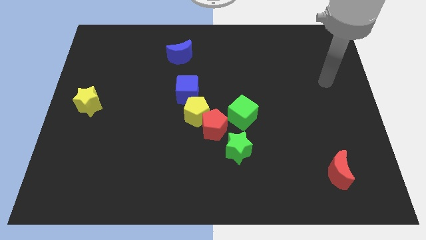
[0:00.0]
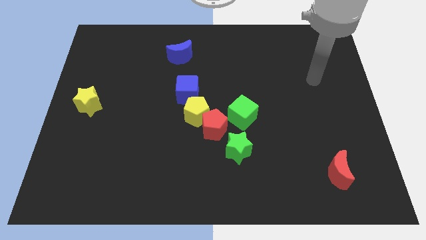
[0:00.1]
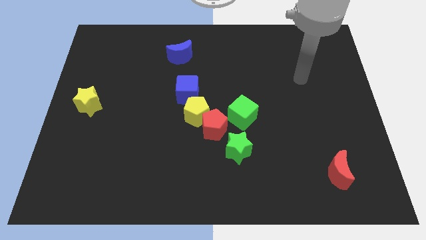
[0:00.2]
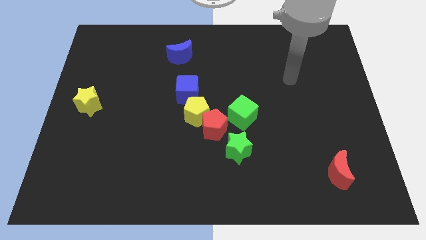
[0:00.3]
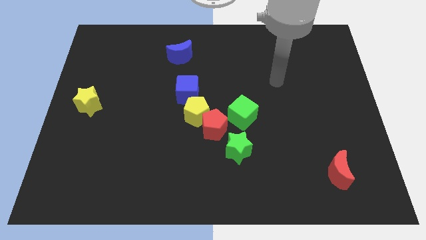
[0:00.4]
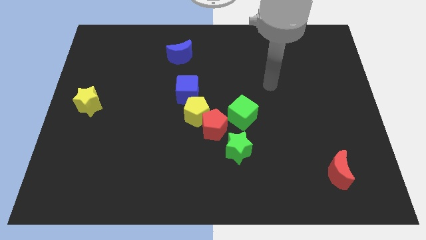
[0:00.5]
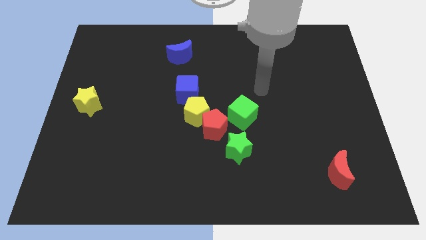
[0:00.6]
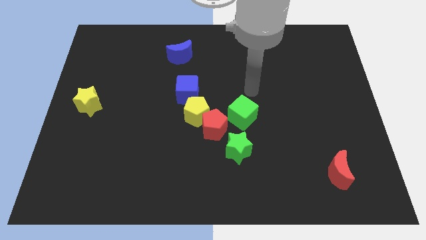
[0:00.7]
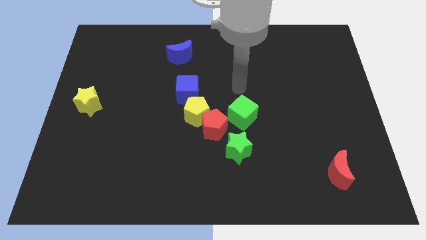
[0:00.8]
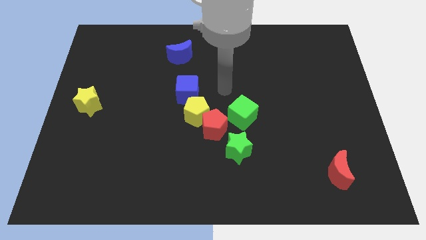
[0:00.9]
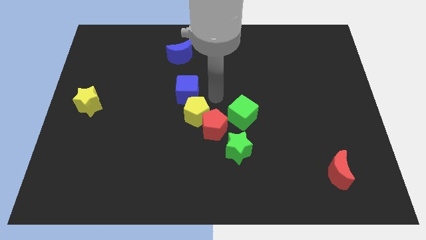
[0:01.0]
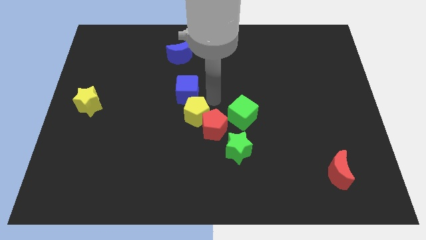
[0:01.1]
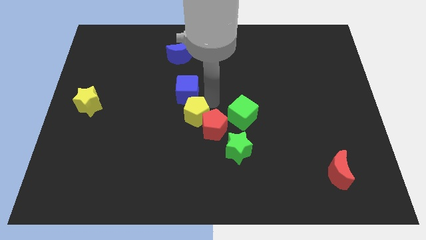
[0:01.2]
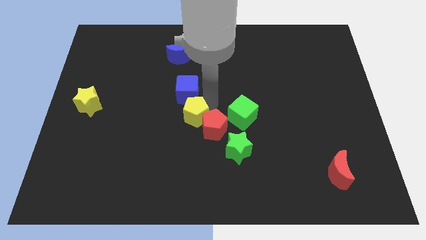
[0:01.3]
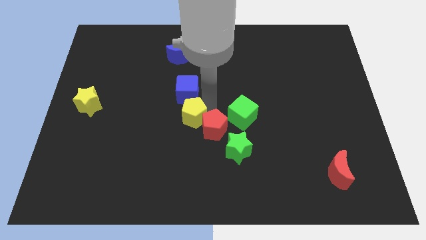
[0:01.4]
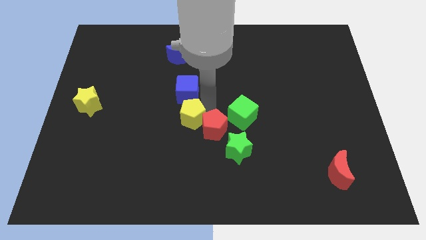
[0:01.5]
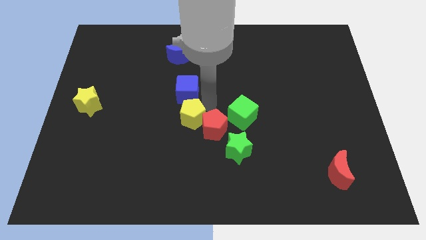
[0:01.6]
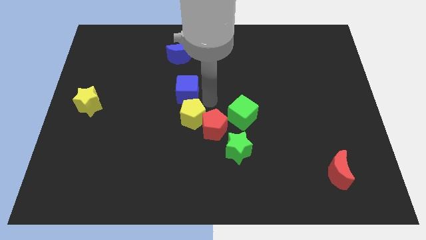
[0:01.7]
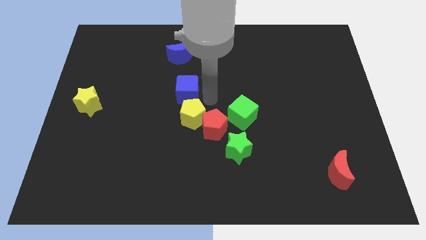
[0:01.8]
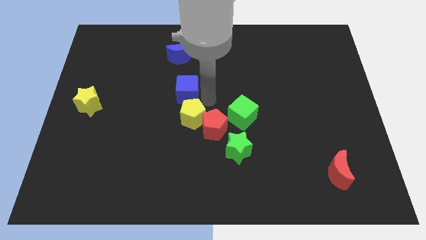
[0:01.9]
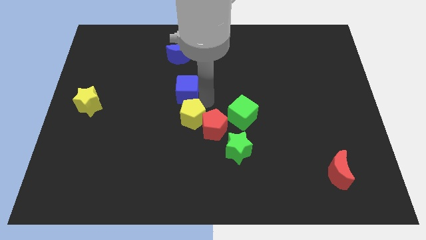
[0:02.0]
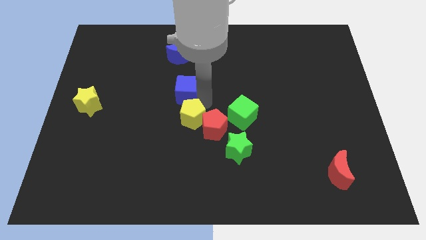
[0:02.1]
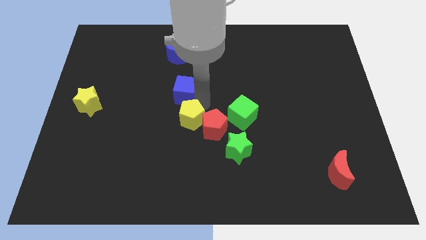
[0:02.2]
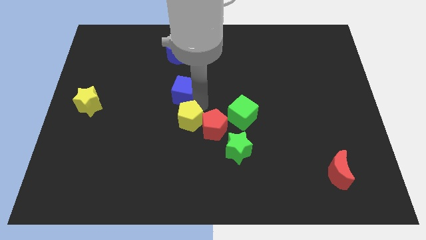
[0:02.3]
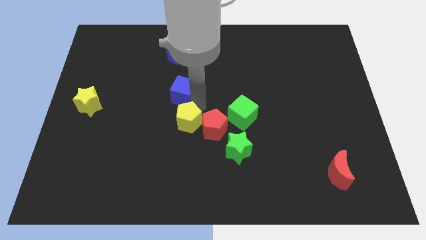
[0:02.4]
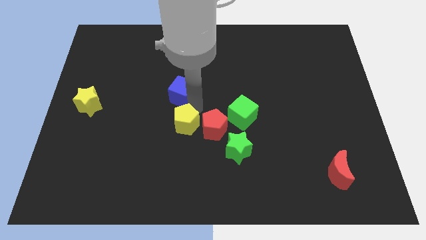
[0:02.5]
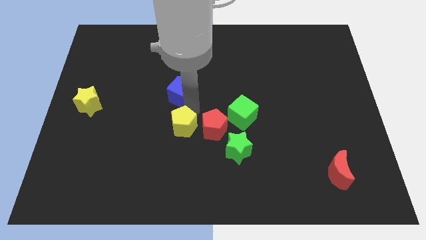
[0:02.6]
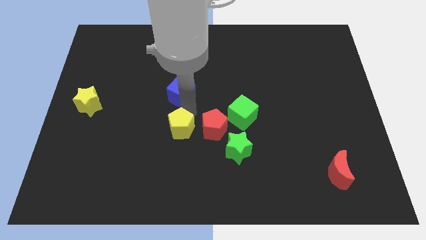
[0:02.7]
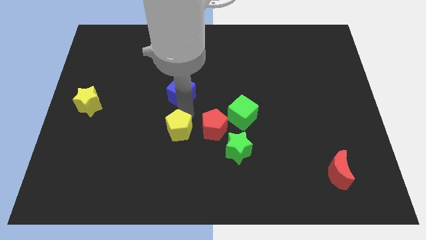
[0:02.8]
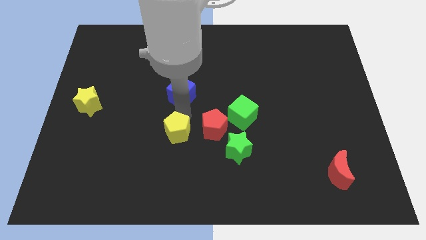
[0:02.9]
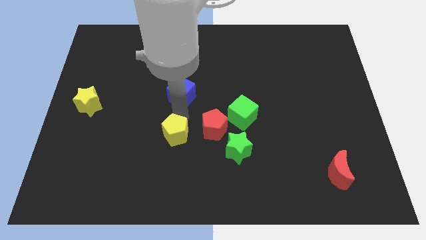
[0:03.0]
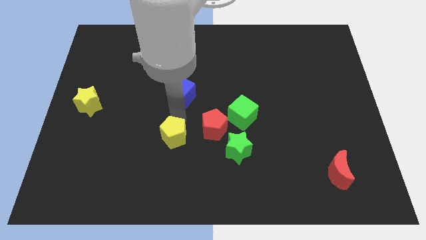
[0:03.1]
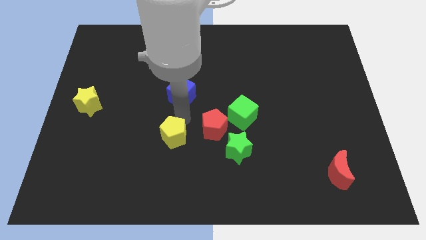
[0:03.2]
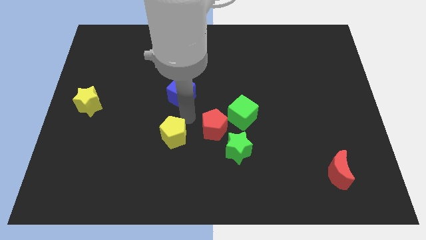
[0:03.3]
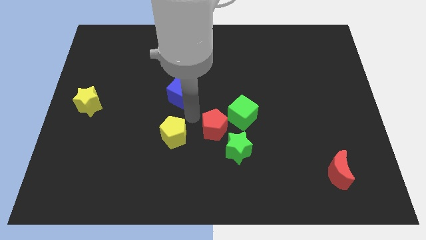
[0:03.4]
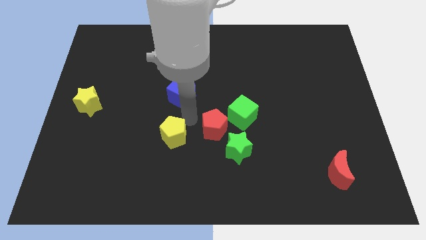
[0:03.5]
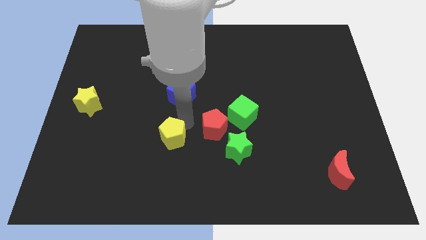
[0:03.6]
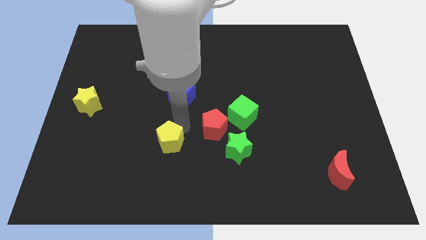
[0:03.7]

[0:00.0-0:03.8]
pull the yellow pentagon apart from the red pentagon and blue cube

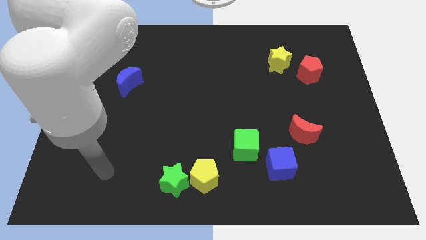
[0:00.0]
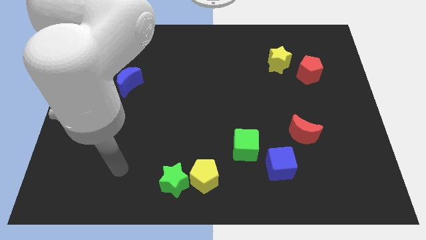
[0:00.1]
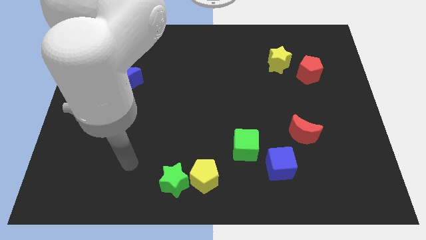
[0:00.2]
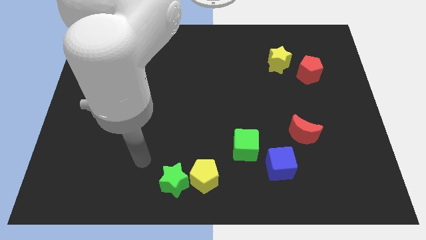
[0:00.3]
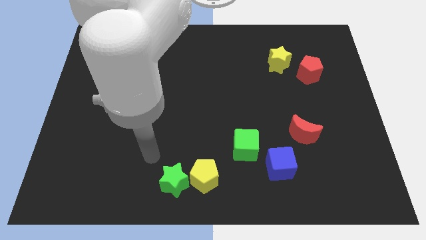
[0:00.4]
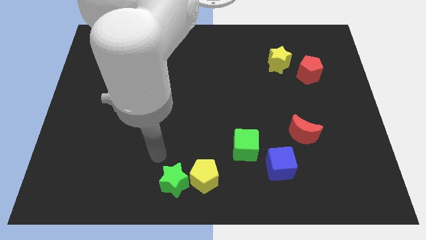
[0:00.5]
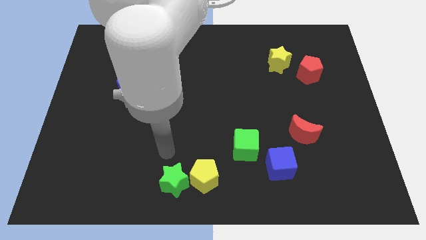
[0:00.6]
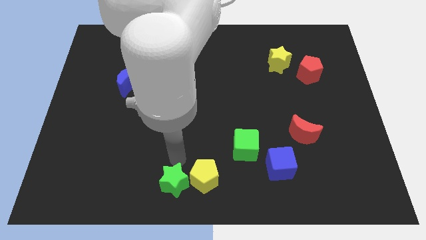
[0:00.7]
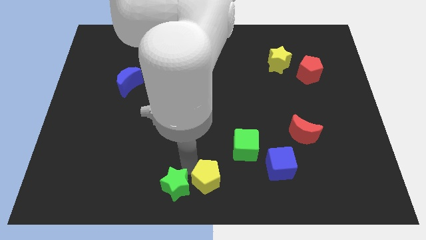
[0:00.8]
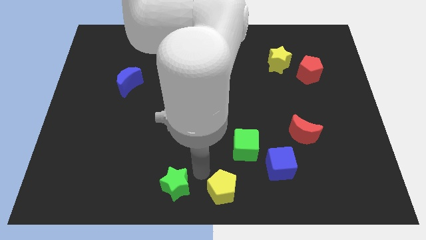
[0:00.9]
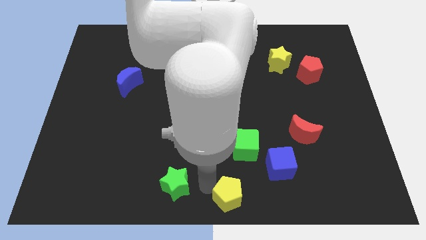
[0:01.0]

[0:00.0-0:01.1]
move the green star away from the yellow pentagon

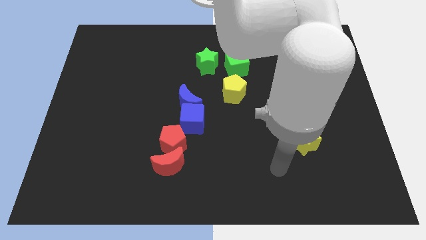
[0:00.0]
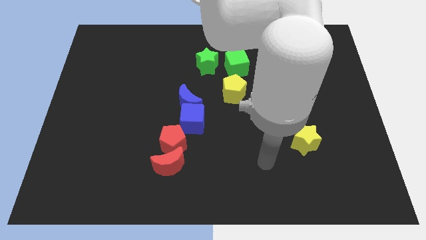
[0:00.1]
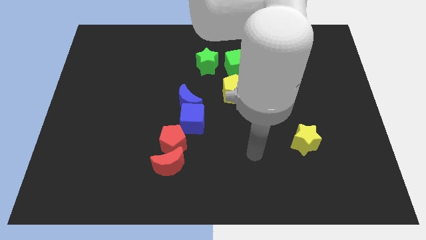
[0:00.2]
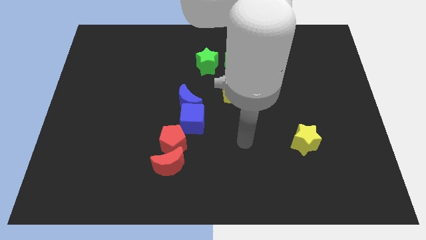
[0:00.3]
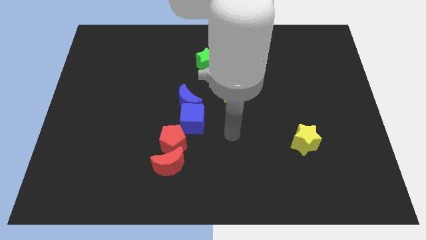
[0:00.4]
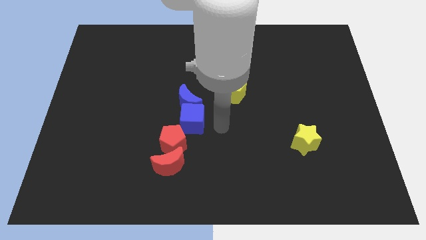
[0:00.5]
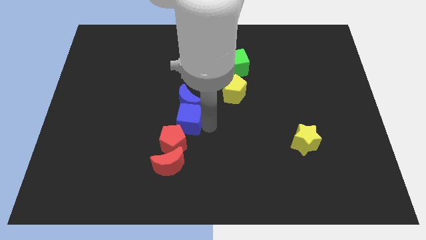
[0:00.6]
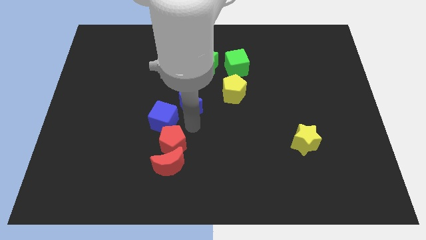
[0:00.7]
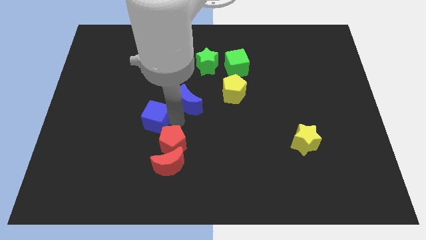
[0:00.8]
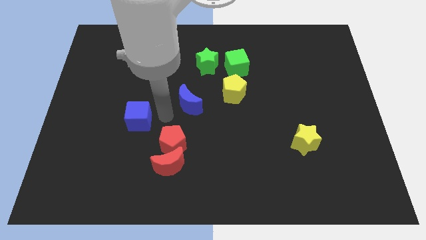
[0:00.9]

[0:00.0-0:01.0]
pull the blue moon apart from the blue cube

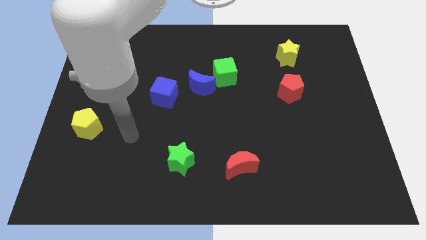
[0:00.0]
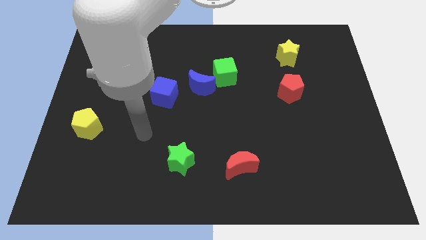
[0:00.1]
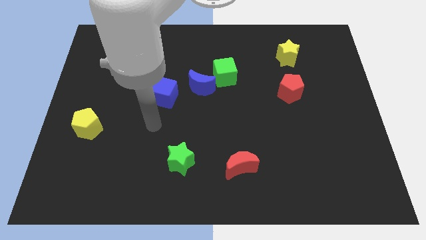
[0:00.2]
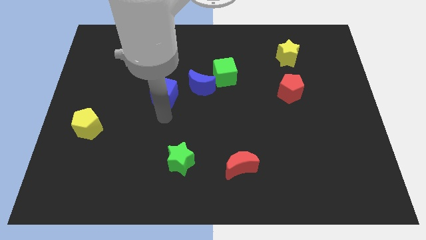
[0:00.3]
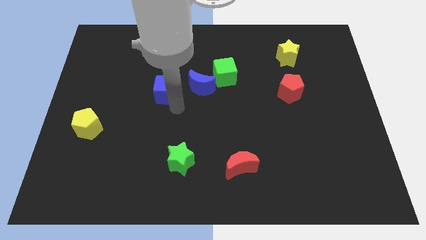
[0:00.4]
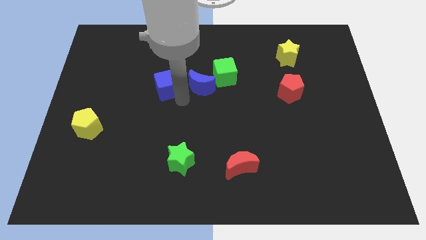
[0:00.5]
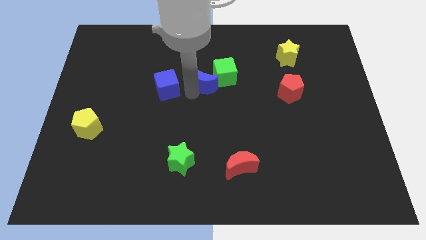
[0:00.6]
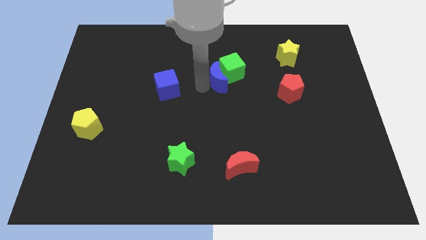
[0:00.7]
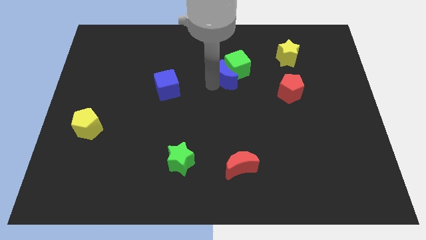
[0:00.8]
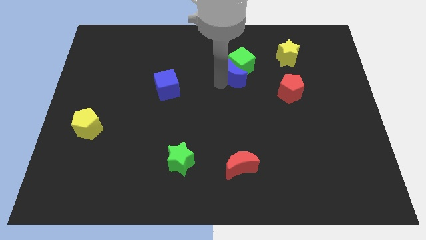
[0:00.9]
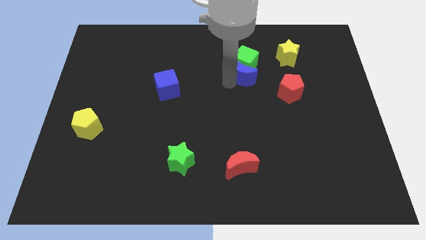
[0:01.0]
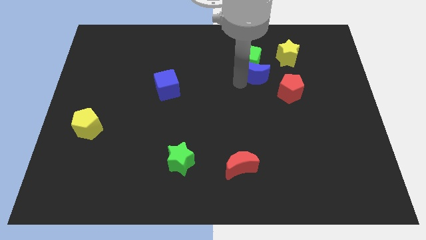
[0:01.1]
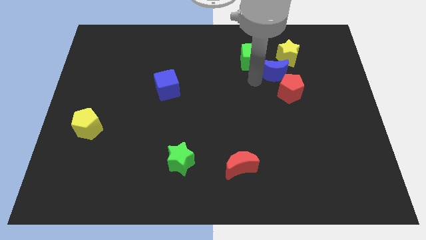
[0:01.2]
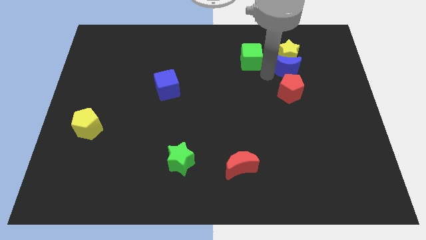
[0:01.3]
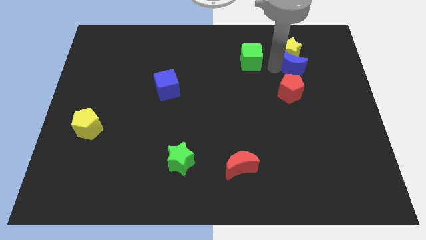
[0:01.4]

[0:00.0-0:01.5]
separate the green cube from the blue moon

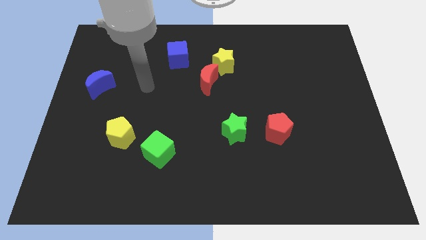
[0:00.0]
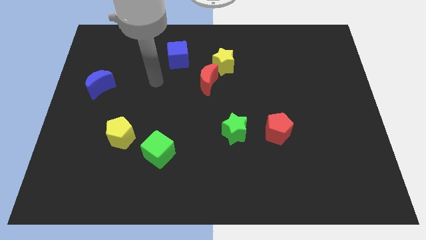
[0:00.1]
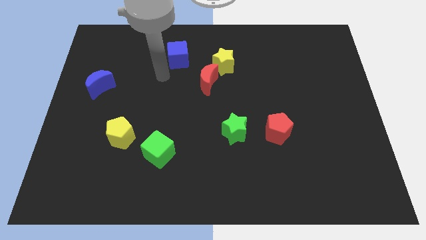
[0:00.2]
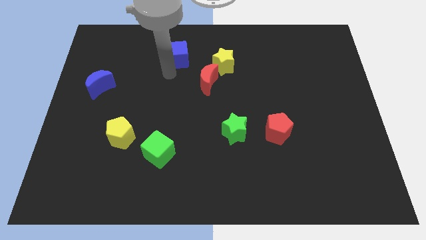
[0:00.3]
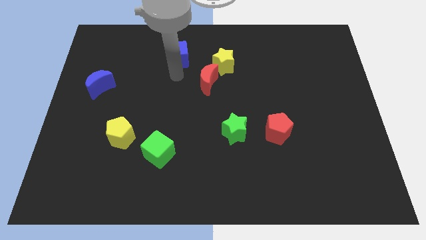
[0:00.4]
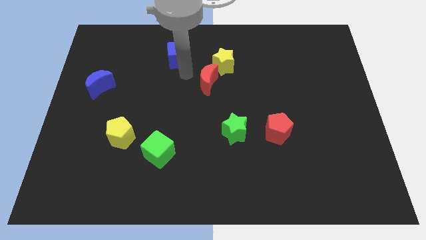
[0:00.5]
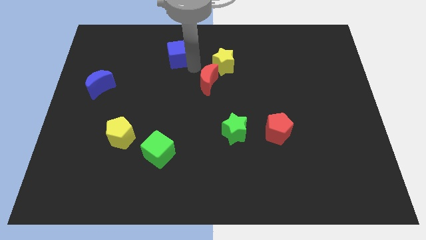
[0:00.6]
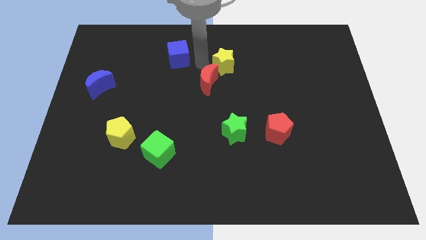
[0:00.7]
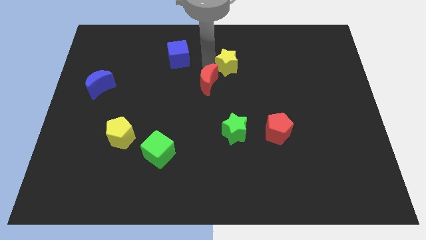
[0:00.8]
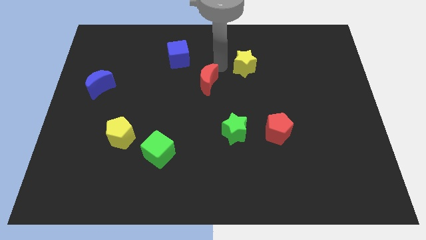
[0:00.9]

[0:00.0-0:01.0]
pull the red moon apart from the yellow star

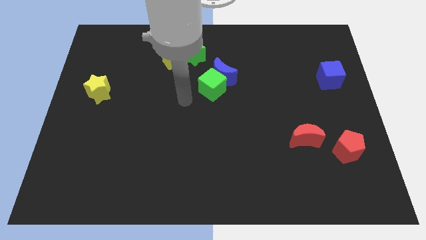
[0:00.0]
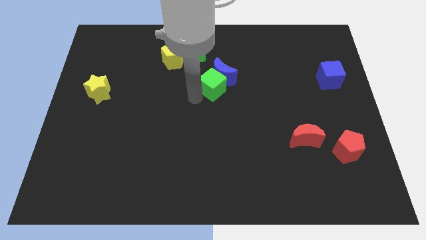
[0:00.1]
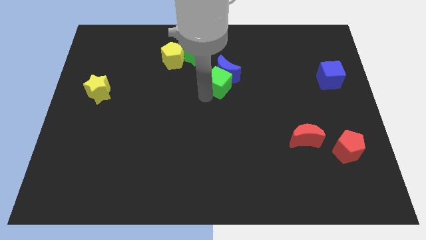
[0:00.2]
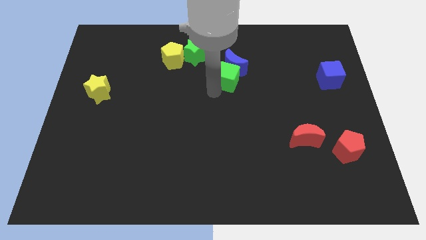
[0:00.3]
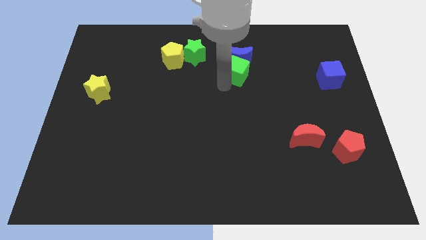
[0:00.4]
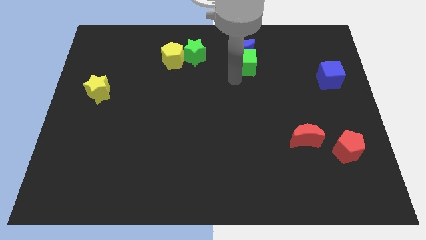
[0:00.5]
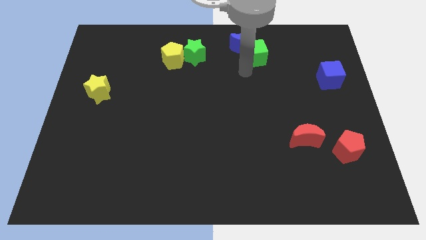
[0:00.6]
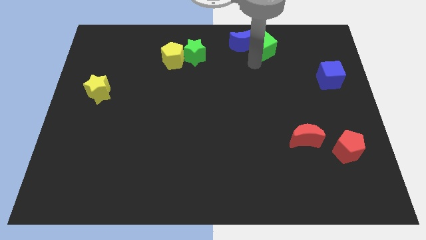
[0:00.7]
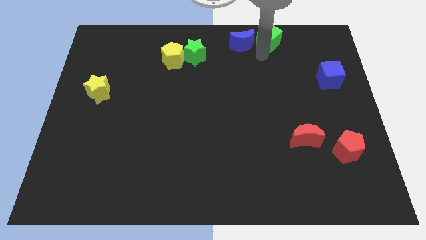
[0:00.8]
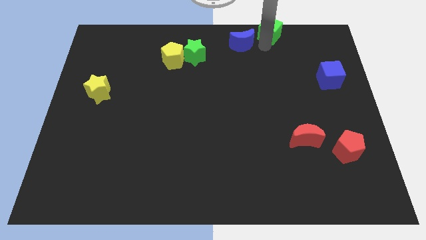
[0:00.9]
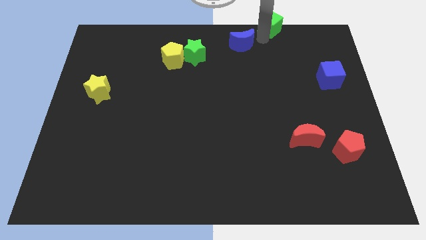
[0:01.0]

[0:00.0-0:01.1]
pull the blue moon apart from the green cube
